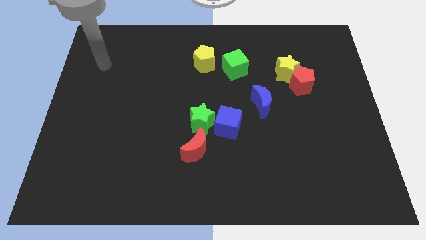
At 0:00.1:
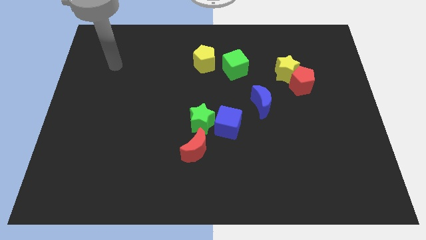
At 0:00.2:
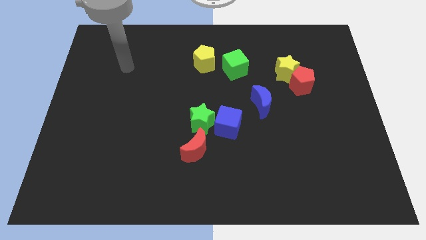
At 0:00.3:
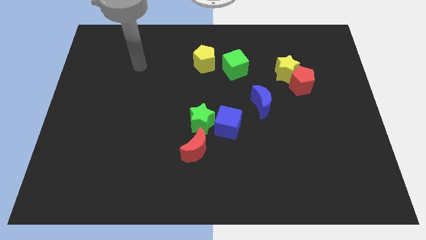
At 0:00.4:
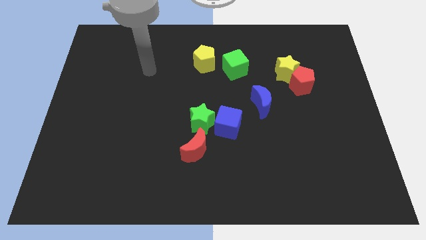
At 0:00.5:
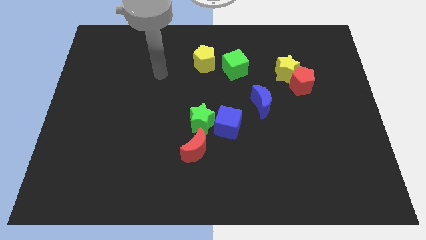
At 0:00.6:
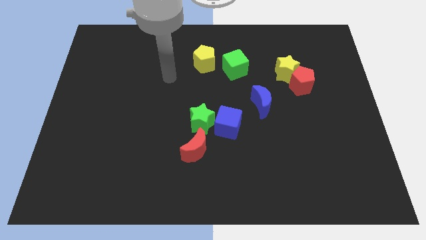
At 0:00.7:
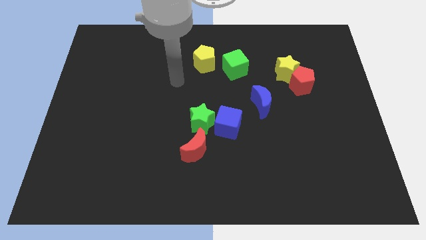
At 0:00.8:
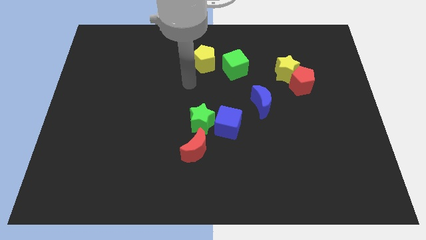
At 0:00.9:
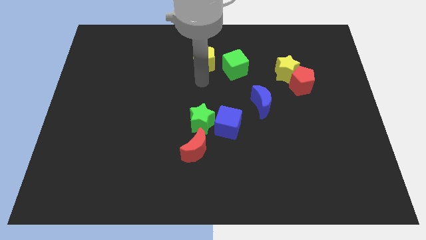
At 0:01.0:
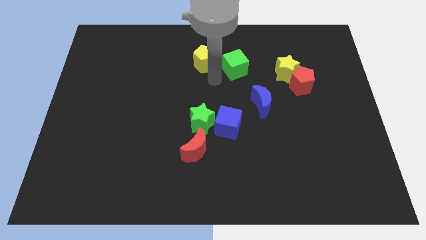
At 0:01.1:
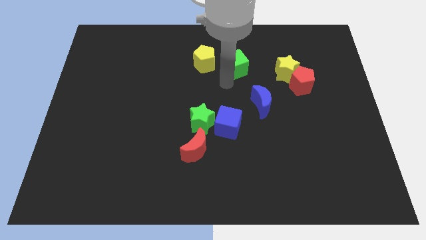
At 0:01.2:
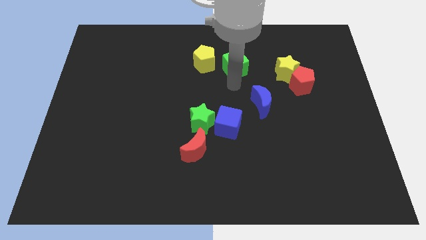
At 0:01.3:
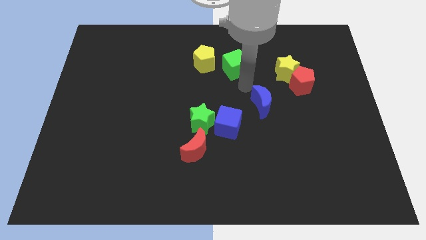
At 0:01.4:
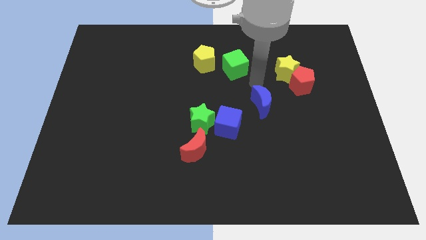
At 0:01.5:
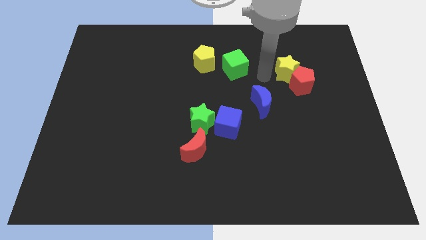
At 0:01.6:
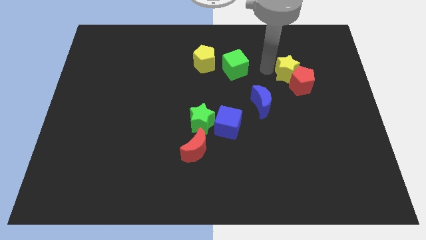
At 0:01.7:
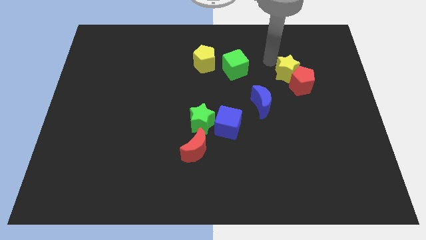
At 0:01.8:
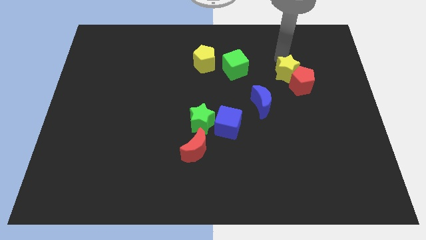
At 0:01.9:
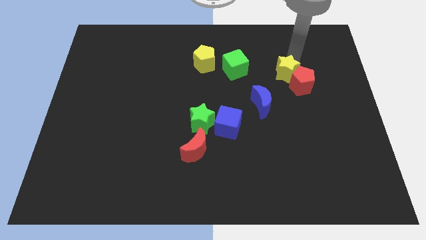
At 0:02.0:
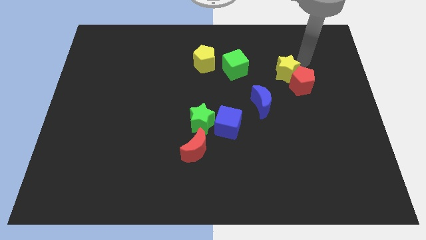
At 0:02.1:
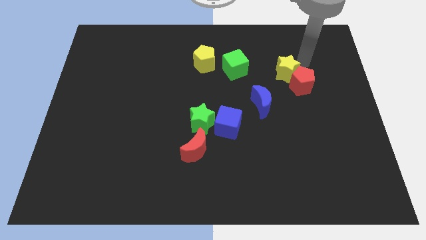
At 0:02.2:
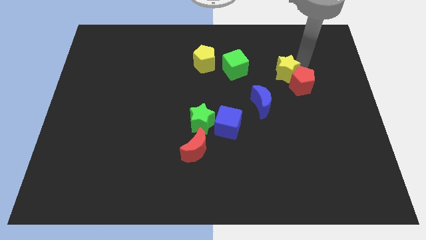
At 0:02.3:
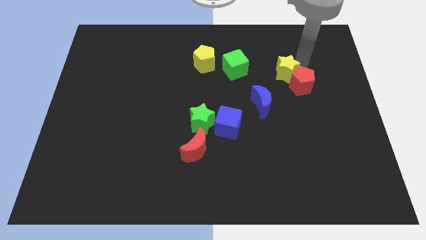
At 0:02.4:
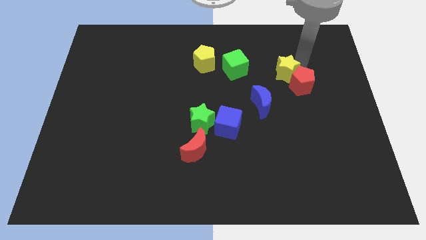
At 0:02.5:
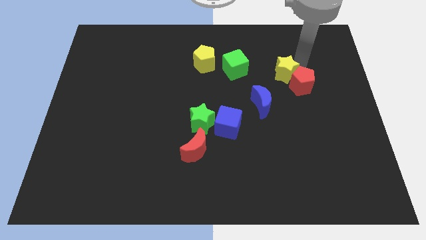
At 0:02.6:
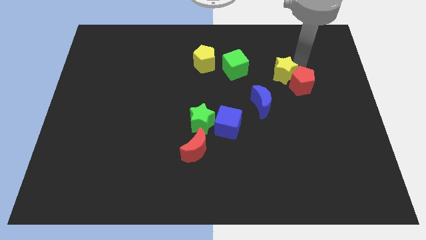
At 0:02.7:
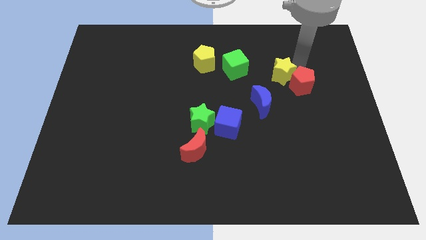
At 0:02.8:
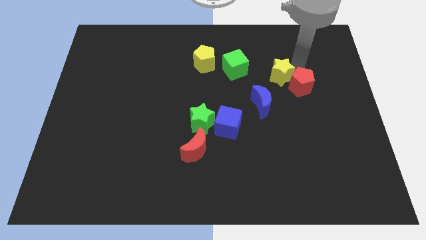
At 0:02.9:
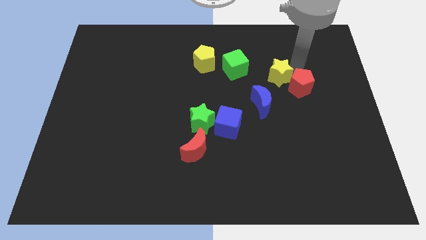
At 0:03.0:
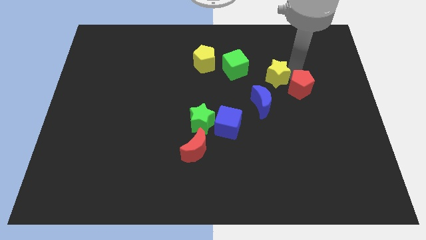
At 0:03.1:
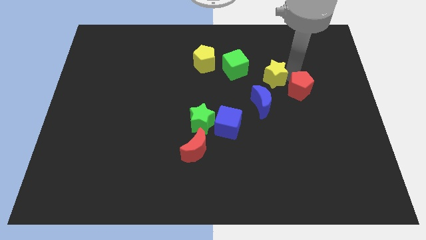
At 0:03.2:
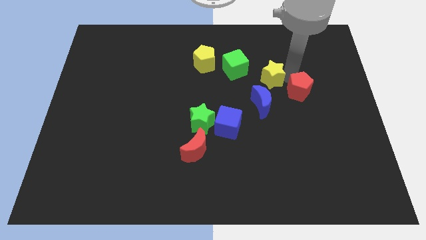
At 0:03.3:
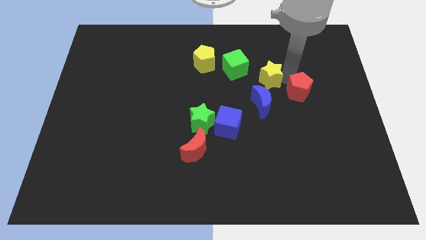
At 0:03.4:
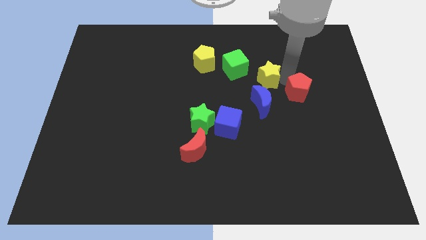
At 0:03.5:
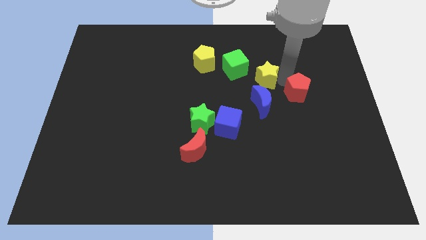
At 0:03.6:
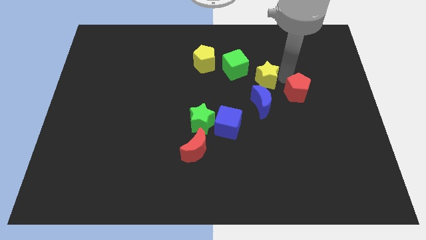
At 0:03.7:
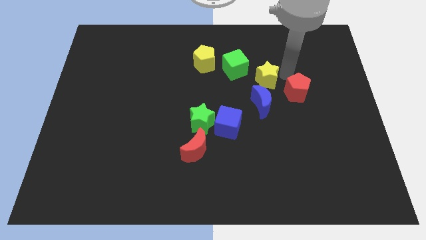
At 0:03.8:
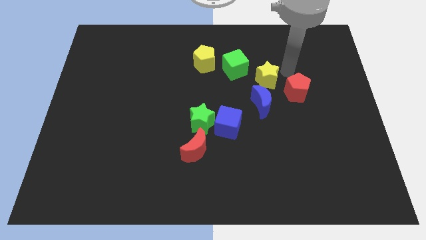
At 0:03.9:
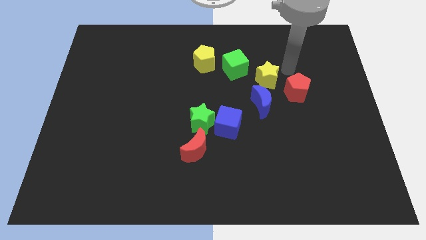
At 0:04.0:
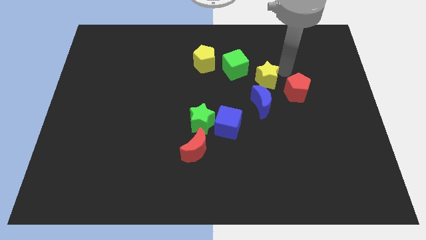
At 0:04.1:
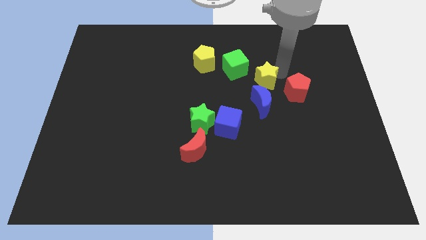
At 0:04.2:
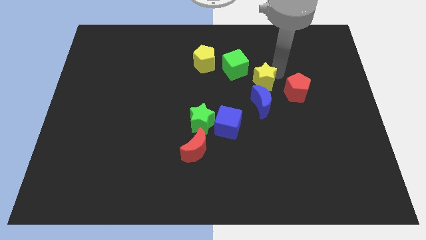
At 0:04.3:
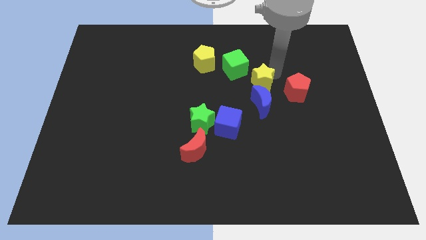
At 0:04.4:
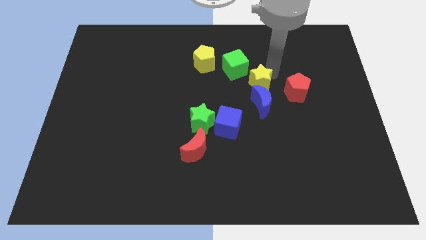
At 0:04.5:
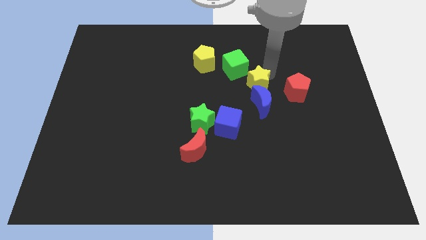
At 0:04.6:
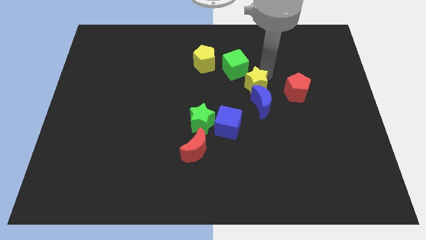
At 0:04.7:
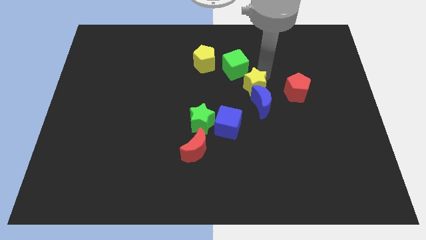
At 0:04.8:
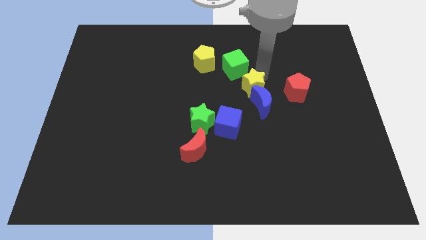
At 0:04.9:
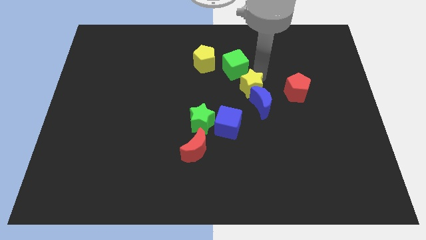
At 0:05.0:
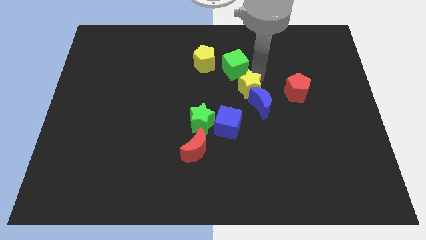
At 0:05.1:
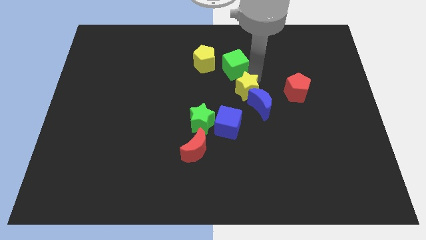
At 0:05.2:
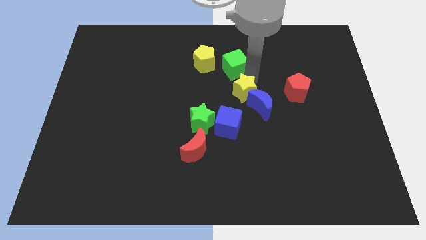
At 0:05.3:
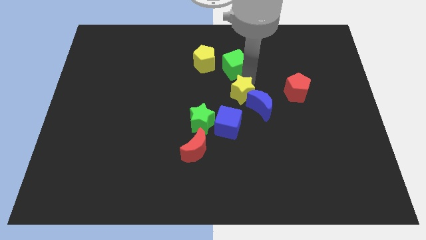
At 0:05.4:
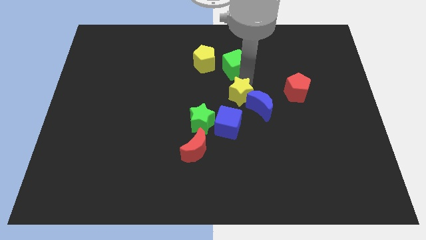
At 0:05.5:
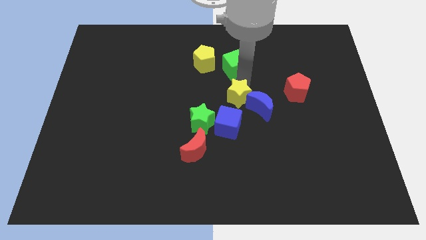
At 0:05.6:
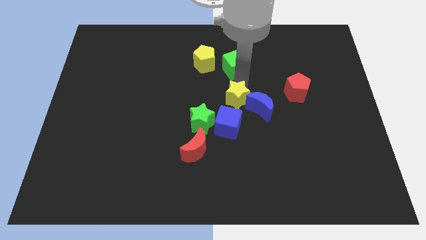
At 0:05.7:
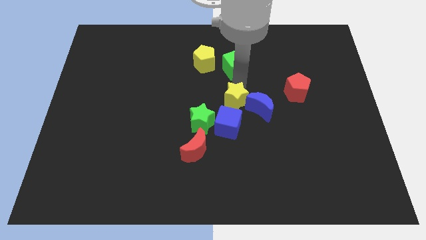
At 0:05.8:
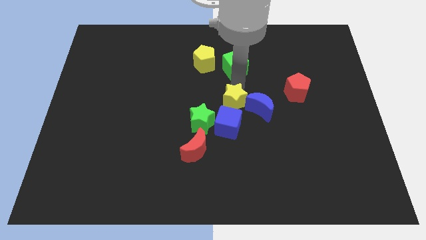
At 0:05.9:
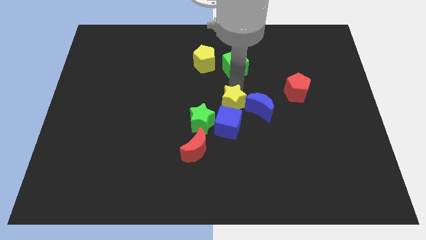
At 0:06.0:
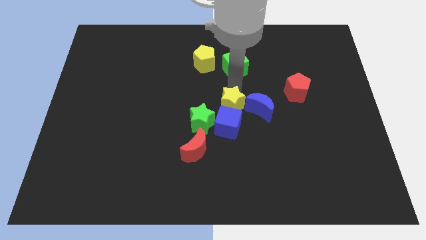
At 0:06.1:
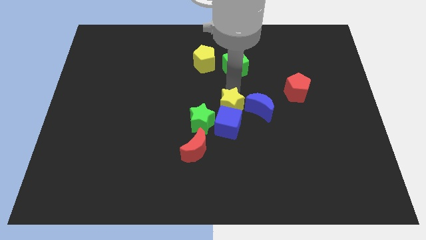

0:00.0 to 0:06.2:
move the yellow star towards the blue cube
